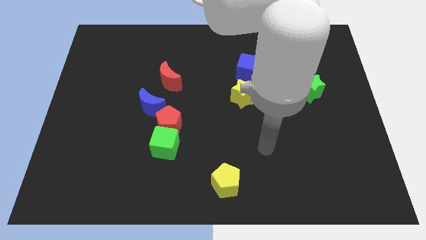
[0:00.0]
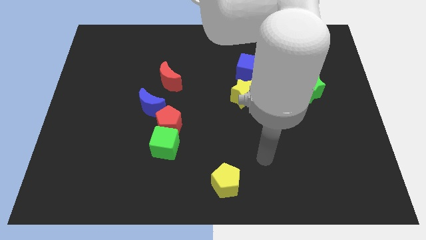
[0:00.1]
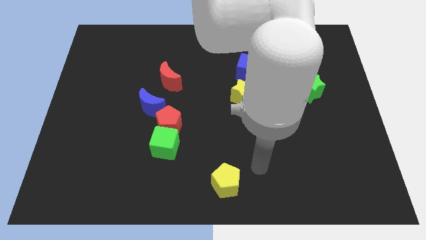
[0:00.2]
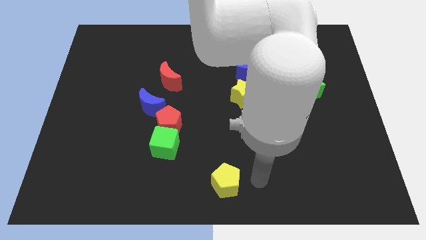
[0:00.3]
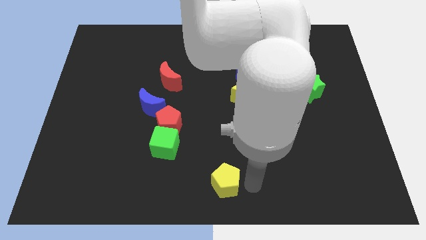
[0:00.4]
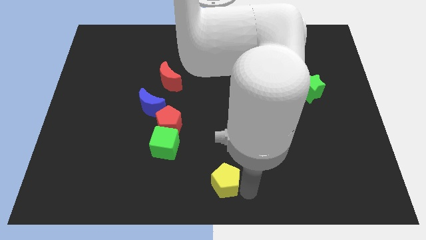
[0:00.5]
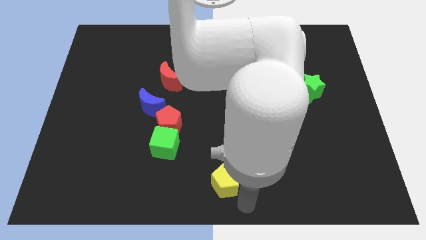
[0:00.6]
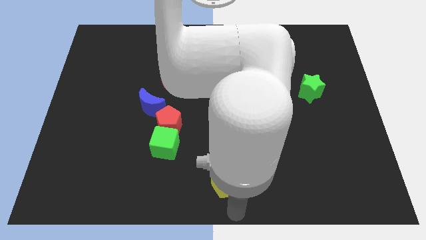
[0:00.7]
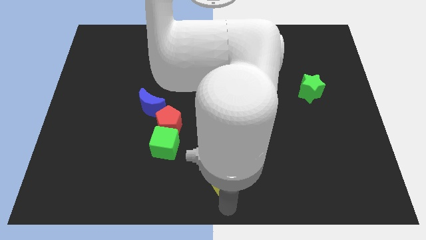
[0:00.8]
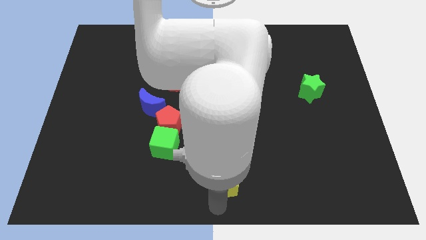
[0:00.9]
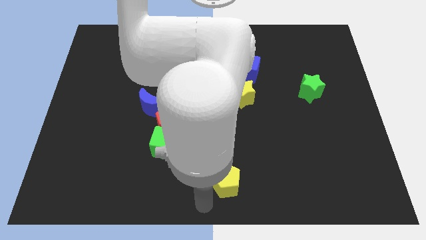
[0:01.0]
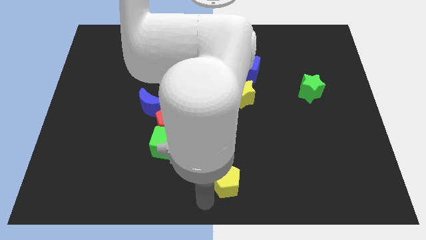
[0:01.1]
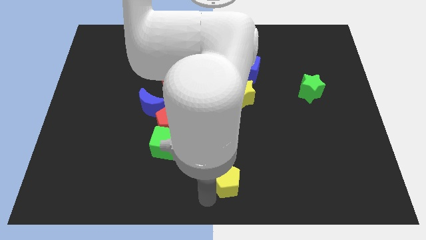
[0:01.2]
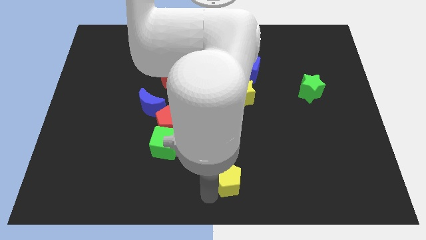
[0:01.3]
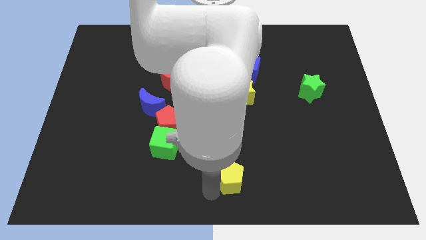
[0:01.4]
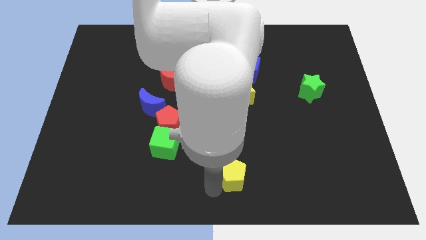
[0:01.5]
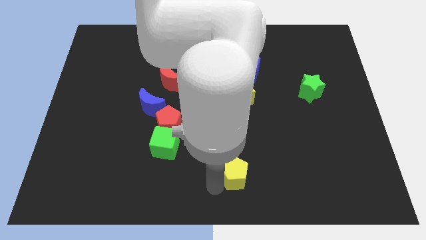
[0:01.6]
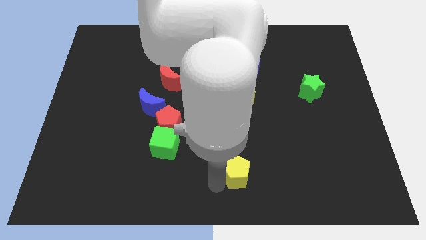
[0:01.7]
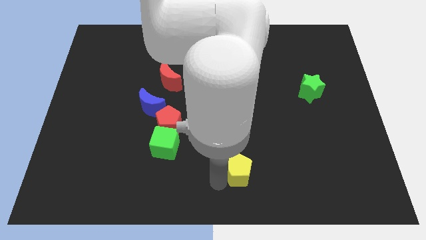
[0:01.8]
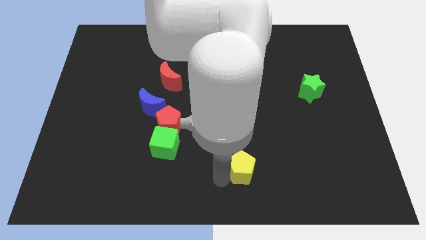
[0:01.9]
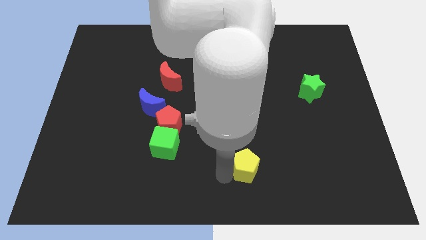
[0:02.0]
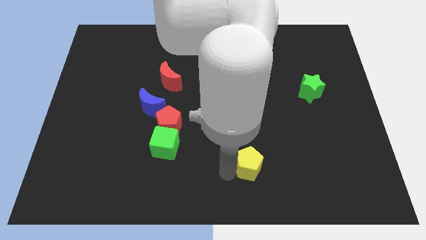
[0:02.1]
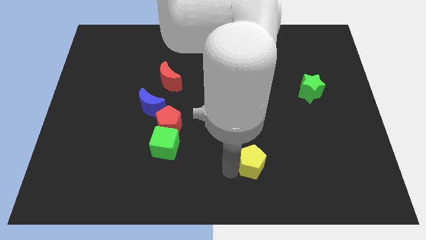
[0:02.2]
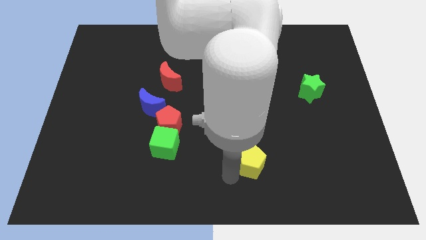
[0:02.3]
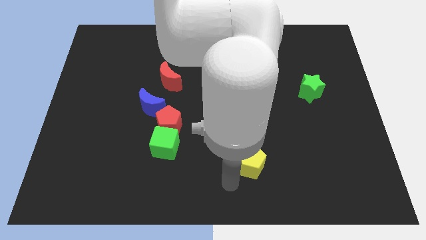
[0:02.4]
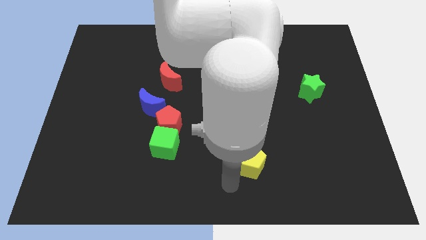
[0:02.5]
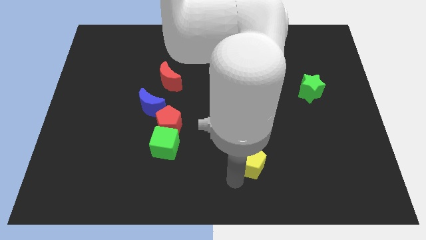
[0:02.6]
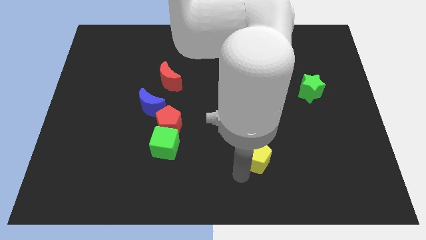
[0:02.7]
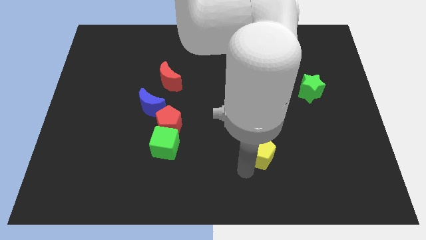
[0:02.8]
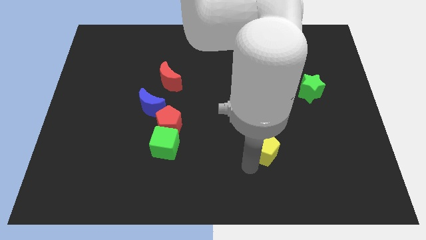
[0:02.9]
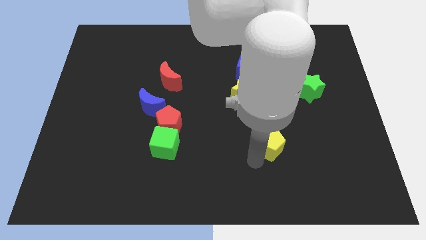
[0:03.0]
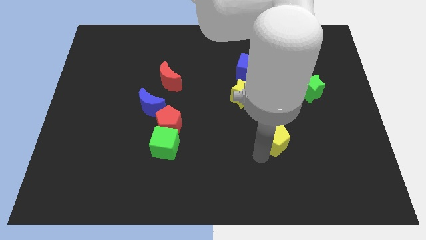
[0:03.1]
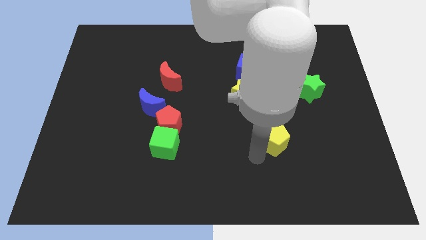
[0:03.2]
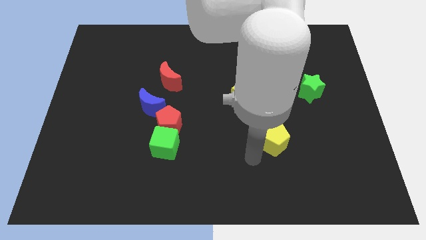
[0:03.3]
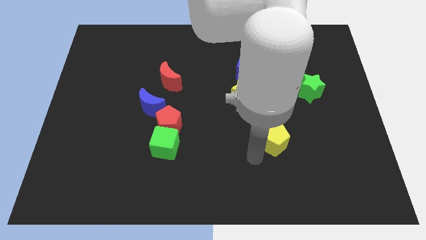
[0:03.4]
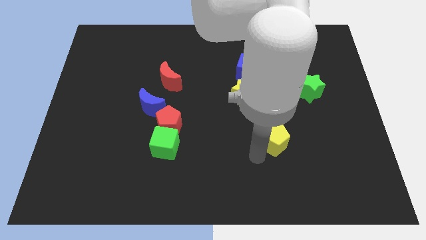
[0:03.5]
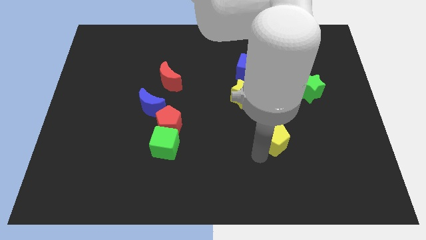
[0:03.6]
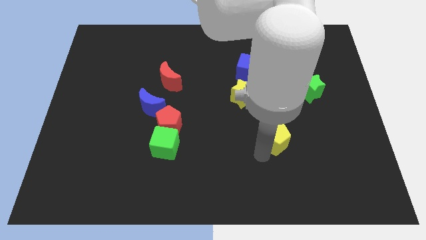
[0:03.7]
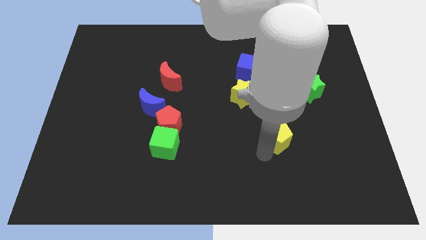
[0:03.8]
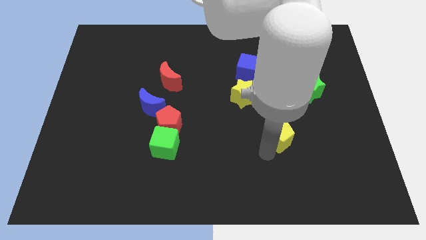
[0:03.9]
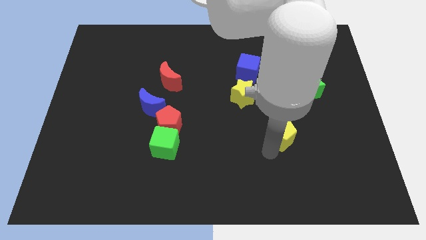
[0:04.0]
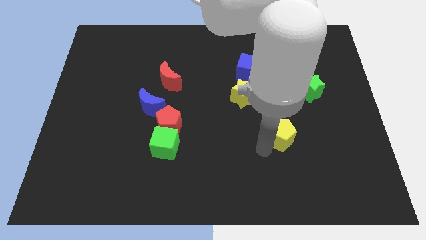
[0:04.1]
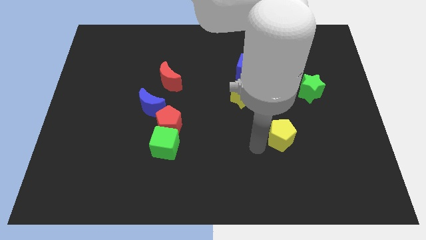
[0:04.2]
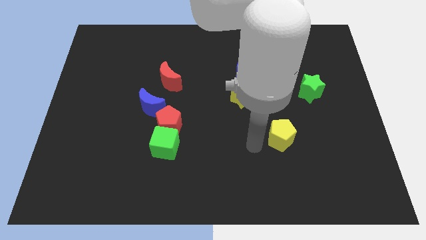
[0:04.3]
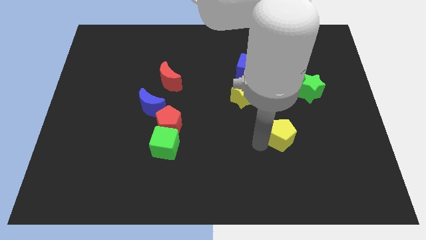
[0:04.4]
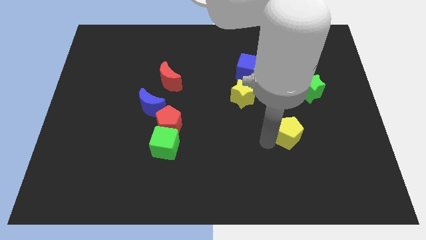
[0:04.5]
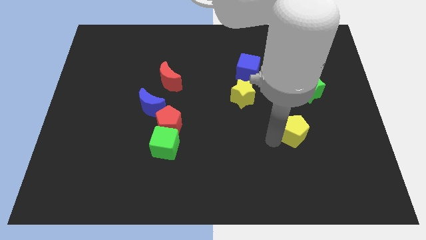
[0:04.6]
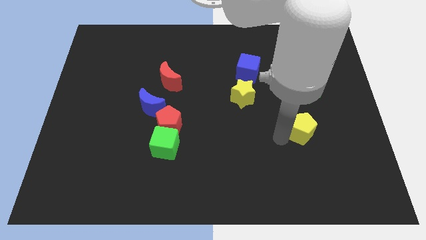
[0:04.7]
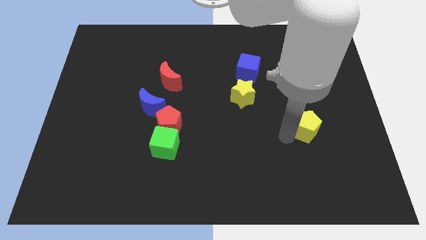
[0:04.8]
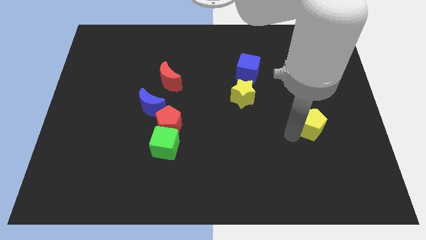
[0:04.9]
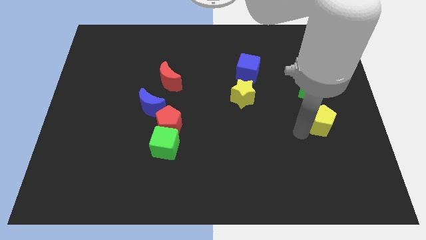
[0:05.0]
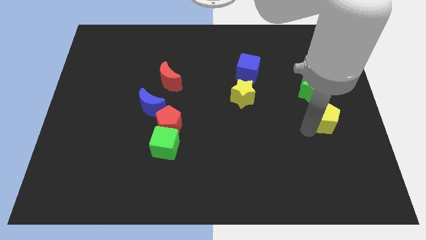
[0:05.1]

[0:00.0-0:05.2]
move the yellow pentagon to the bottom right side of the green star

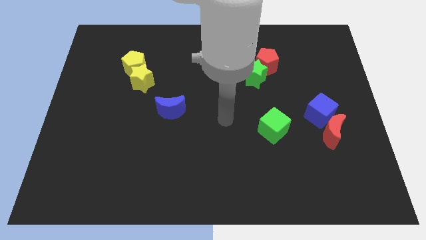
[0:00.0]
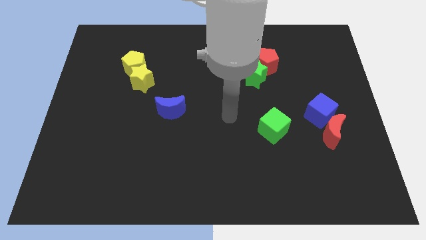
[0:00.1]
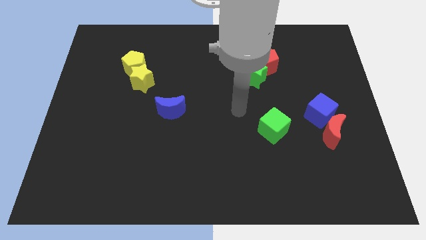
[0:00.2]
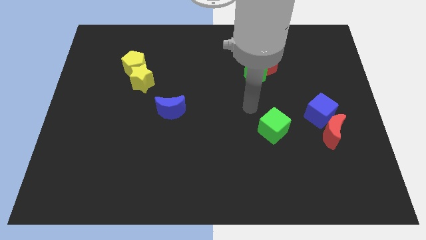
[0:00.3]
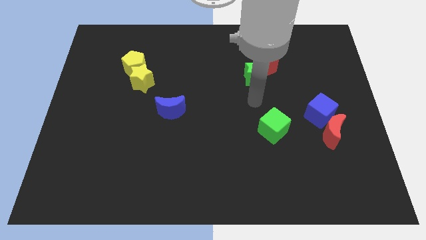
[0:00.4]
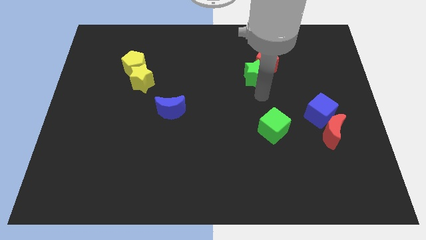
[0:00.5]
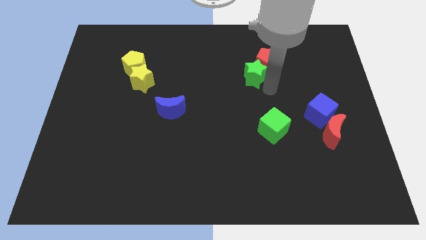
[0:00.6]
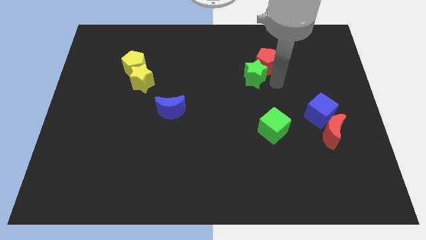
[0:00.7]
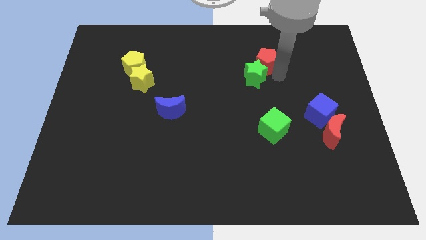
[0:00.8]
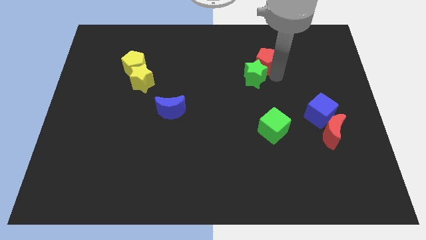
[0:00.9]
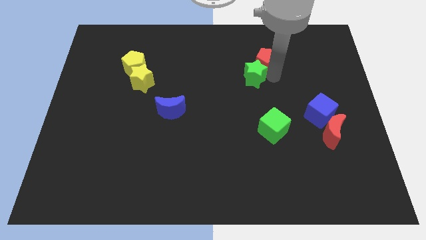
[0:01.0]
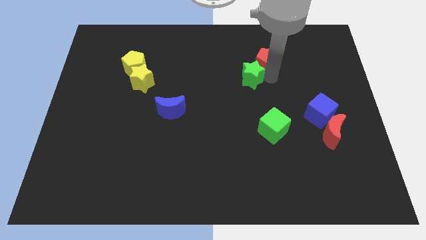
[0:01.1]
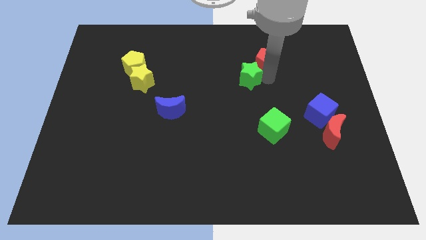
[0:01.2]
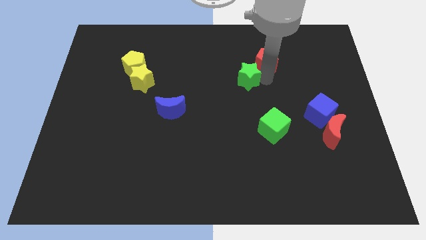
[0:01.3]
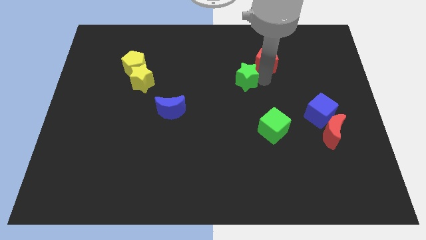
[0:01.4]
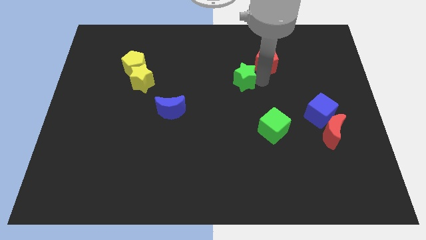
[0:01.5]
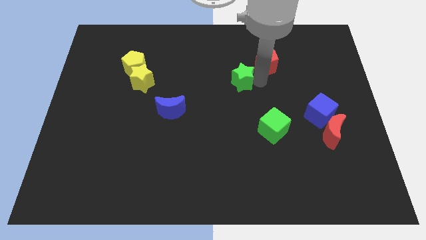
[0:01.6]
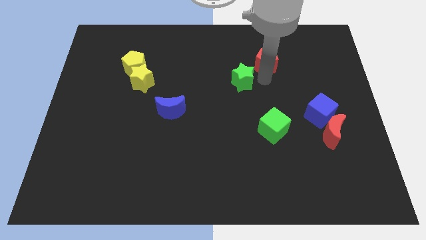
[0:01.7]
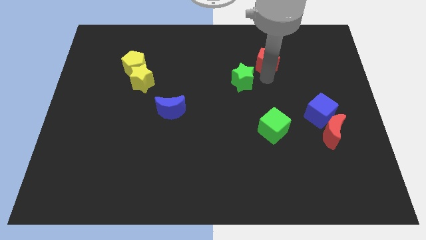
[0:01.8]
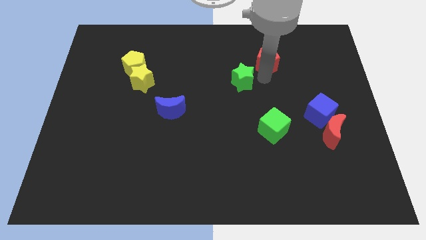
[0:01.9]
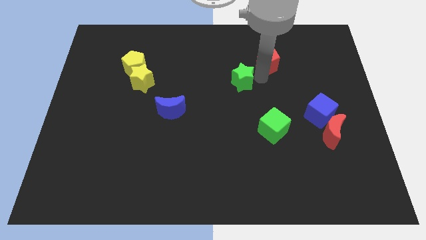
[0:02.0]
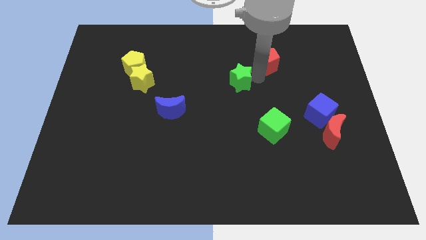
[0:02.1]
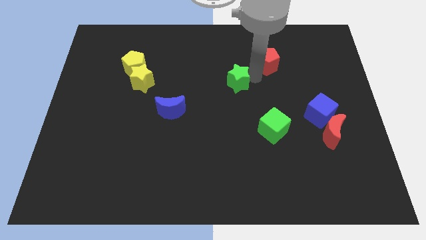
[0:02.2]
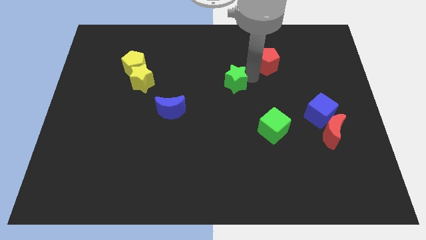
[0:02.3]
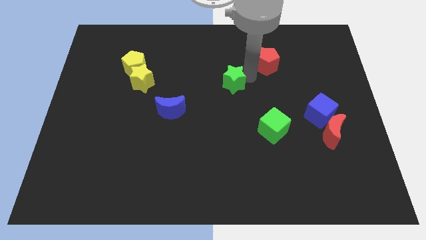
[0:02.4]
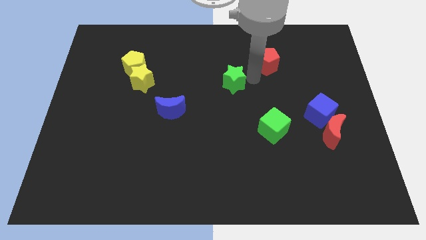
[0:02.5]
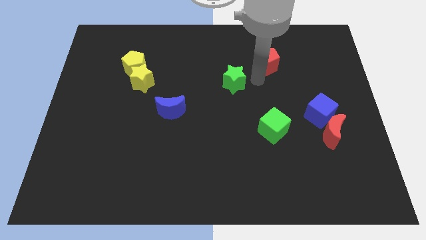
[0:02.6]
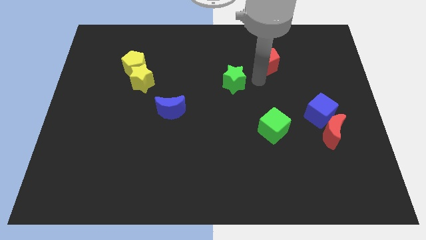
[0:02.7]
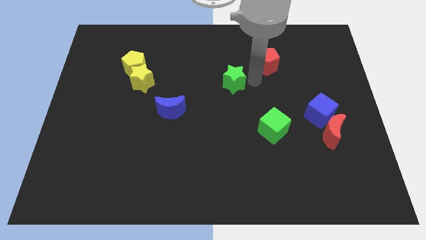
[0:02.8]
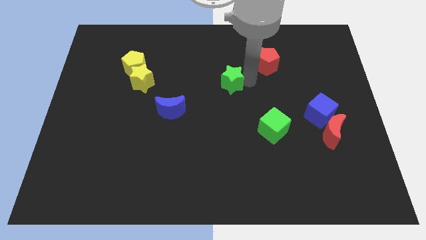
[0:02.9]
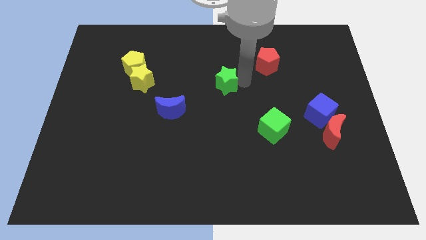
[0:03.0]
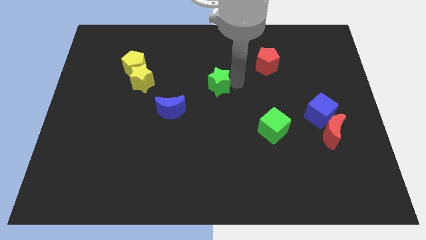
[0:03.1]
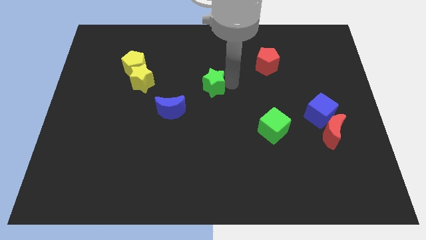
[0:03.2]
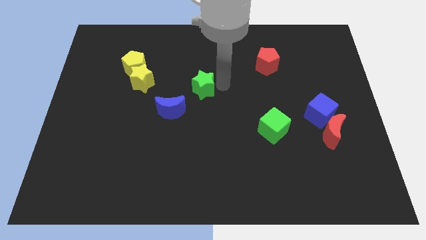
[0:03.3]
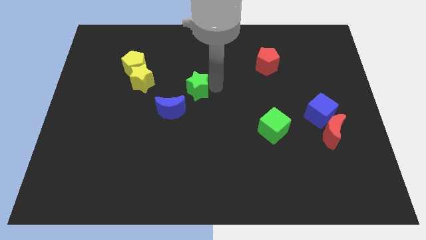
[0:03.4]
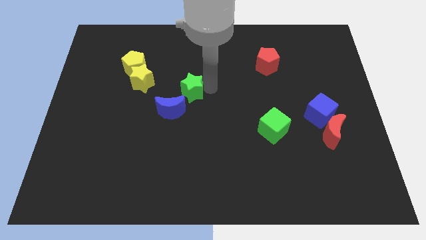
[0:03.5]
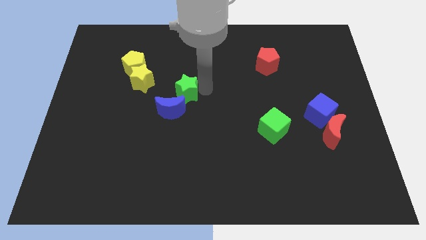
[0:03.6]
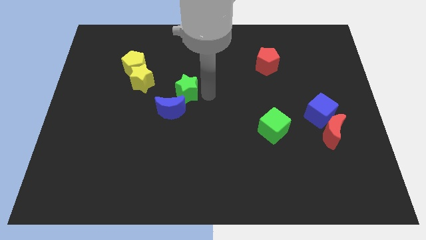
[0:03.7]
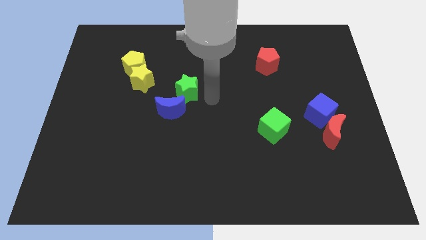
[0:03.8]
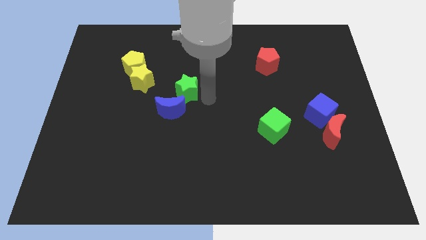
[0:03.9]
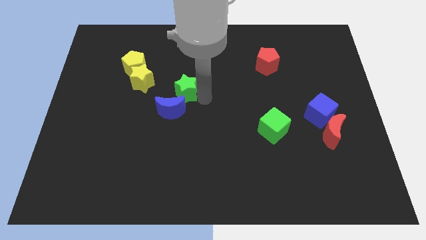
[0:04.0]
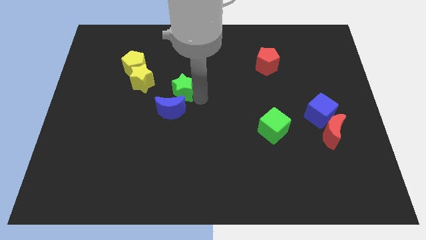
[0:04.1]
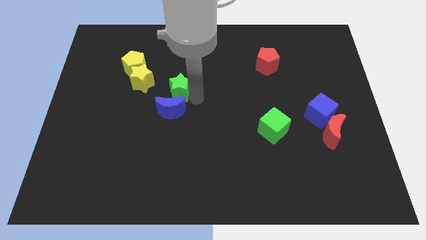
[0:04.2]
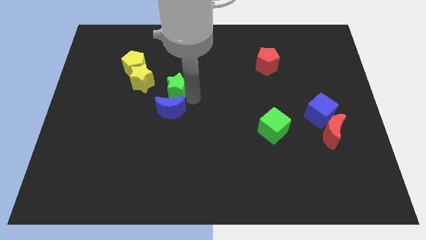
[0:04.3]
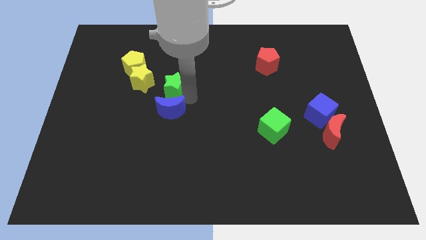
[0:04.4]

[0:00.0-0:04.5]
slide the green star to the bottom right of the yellow pentagon
